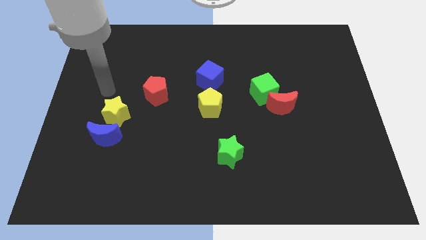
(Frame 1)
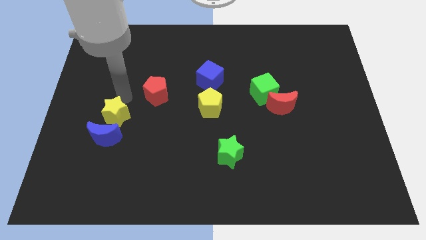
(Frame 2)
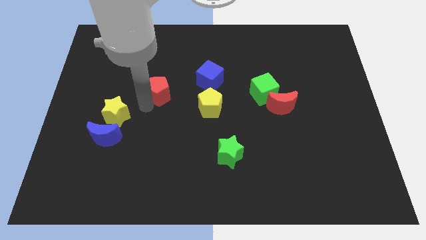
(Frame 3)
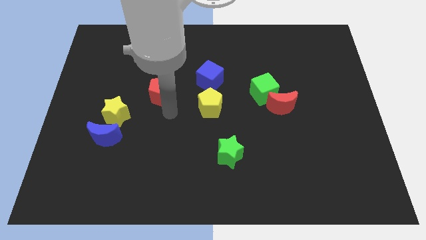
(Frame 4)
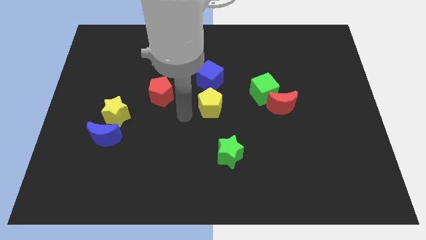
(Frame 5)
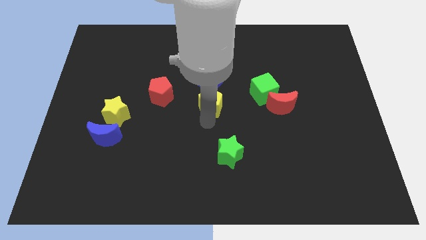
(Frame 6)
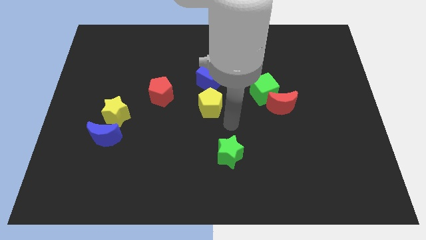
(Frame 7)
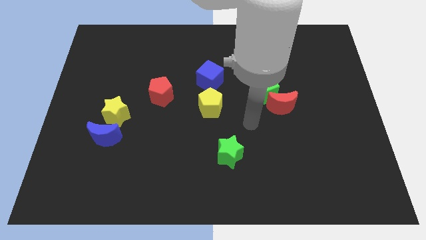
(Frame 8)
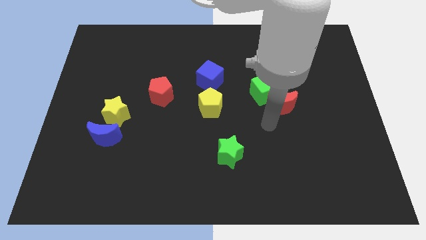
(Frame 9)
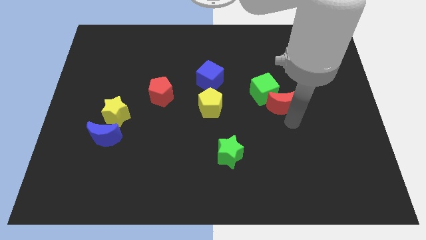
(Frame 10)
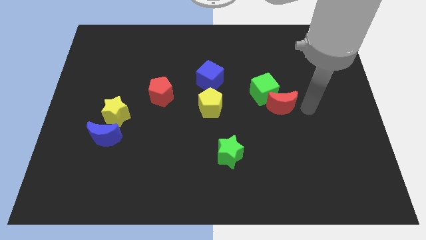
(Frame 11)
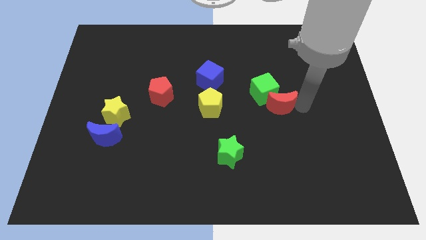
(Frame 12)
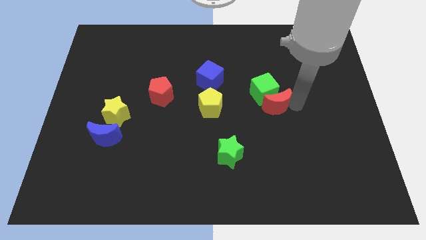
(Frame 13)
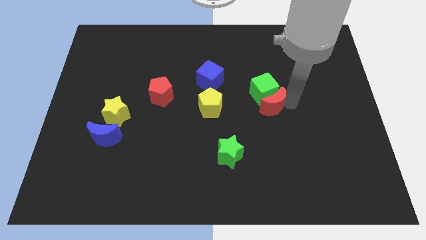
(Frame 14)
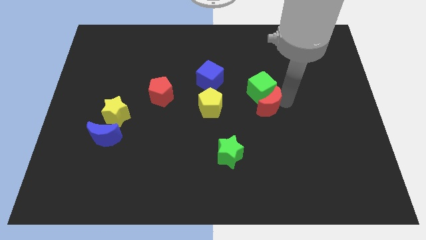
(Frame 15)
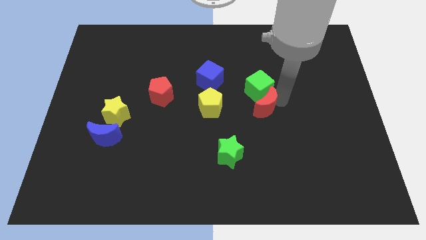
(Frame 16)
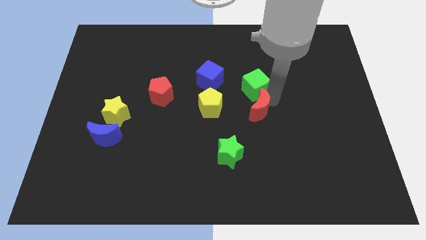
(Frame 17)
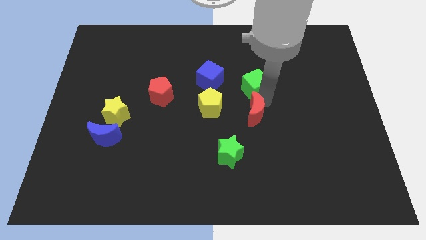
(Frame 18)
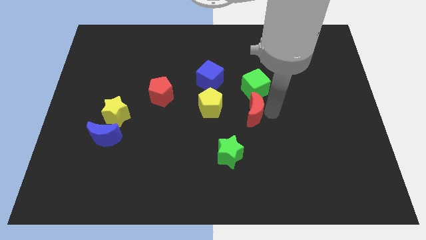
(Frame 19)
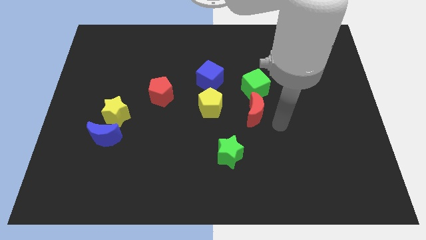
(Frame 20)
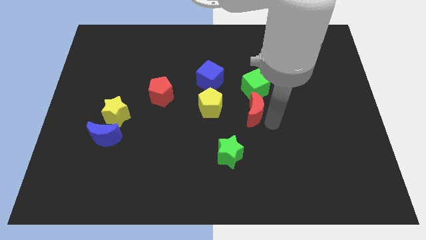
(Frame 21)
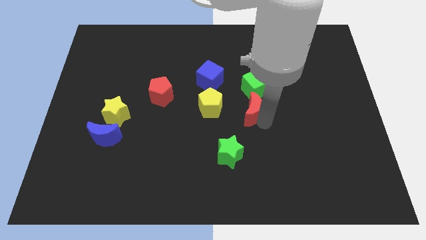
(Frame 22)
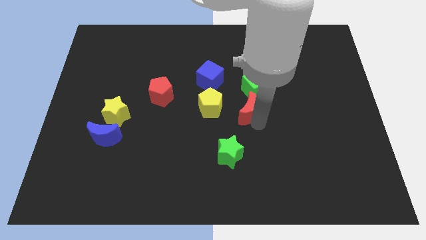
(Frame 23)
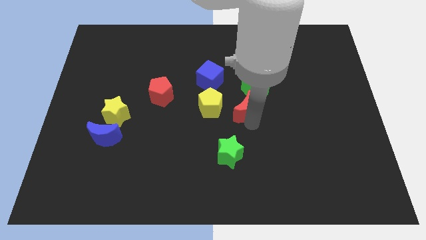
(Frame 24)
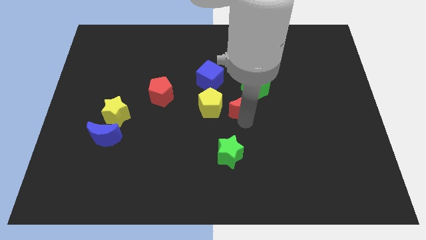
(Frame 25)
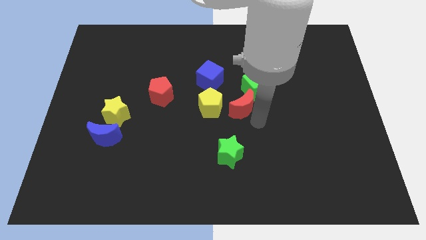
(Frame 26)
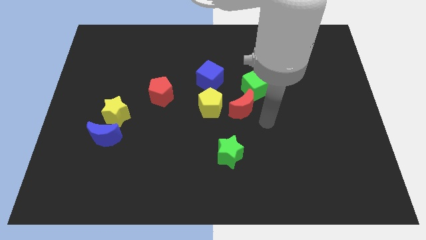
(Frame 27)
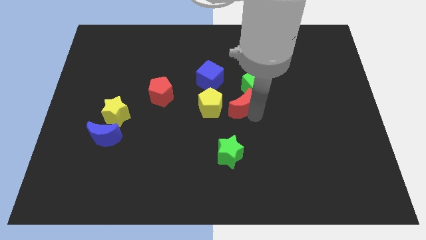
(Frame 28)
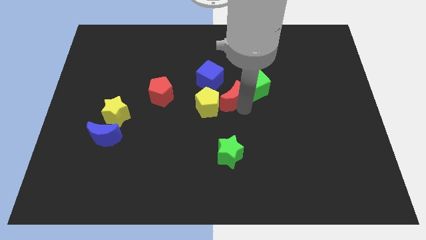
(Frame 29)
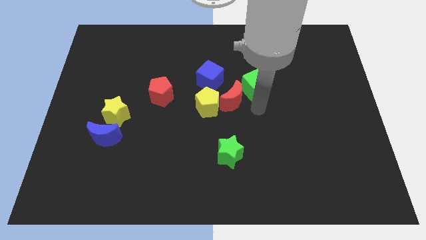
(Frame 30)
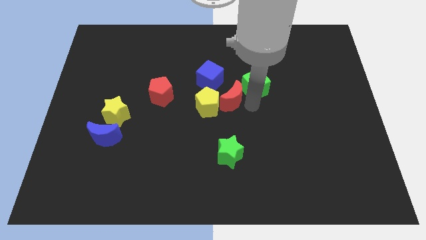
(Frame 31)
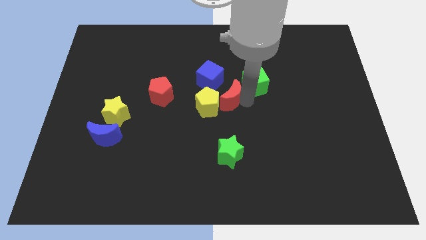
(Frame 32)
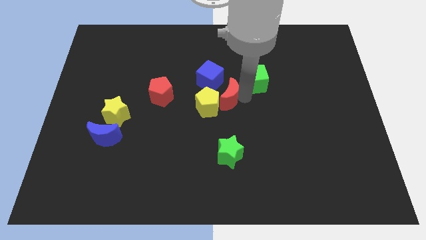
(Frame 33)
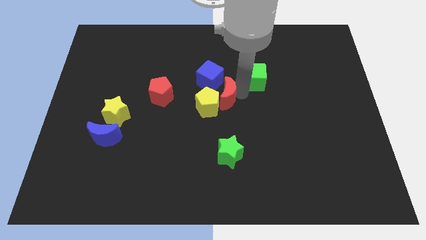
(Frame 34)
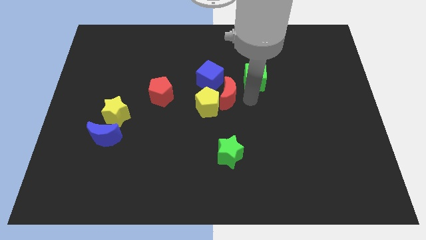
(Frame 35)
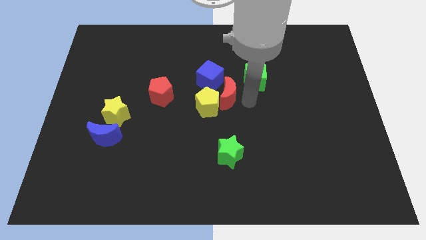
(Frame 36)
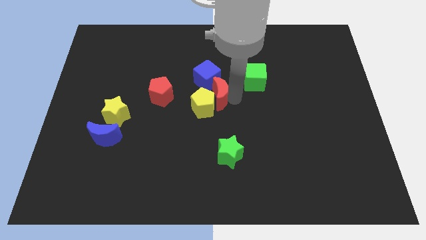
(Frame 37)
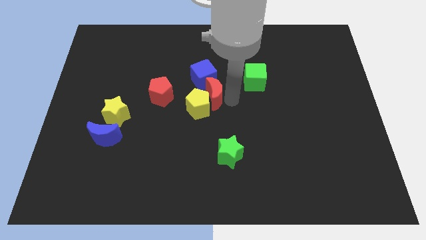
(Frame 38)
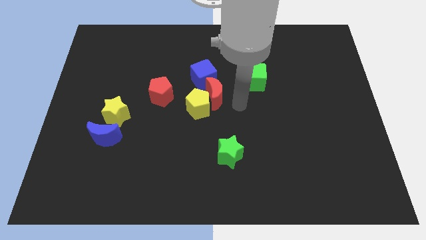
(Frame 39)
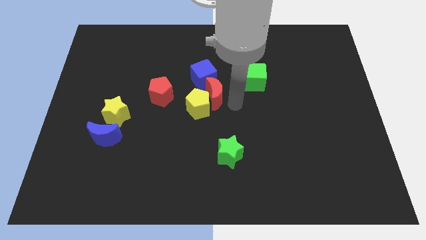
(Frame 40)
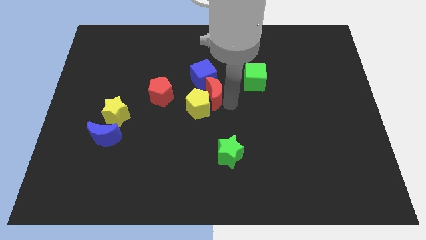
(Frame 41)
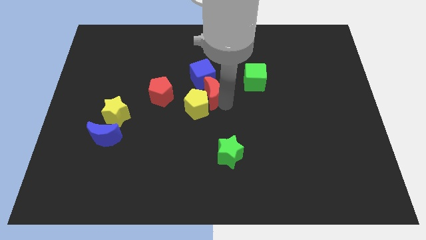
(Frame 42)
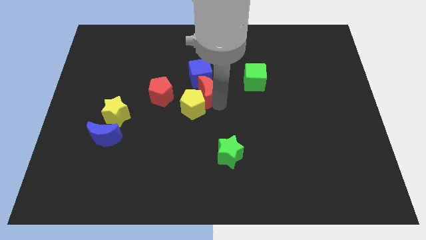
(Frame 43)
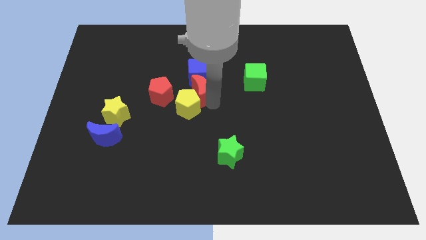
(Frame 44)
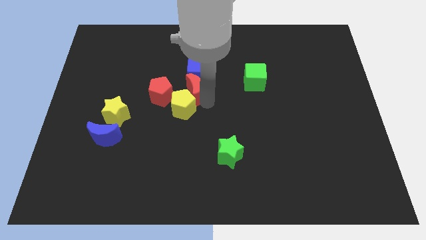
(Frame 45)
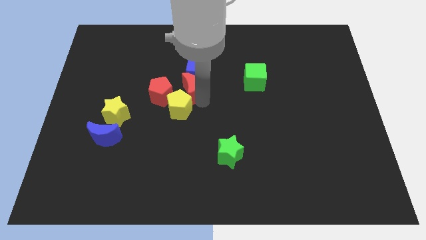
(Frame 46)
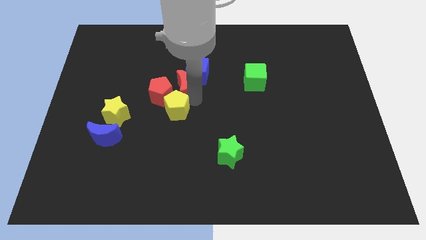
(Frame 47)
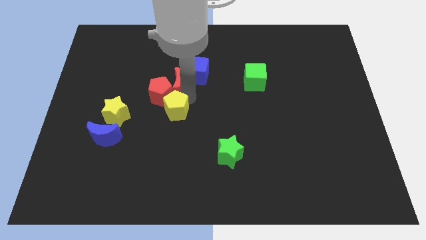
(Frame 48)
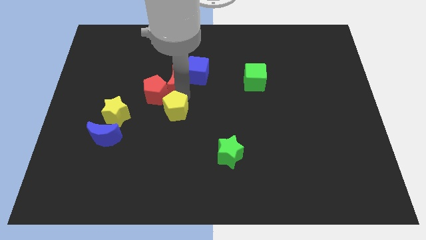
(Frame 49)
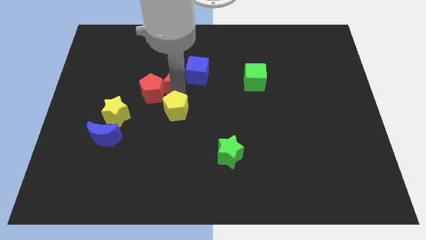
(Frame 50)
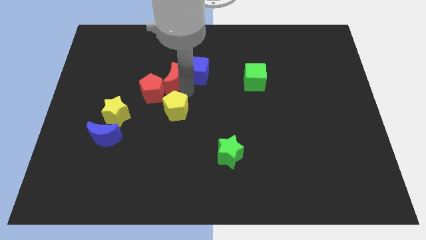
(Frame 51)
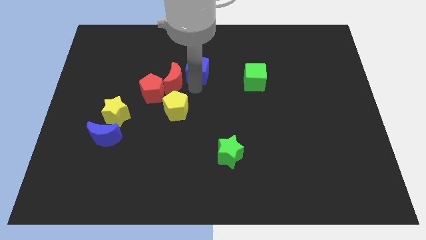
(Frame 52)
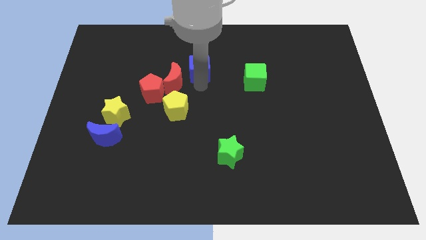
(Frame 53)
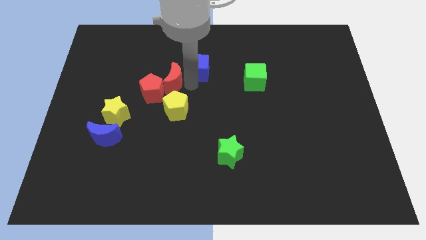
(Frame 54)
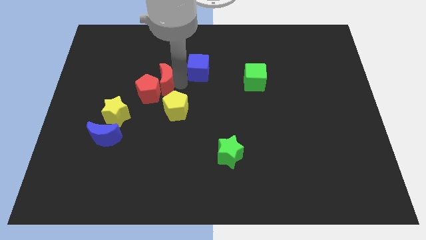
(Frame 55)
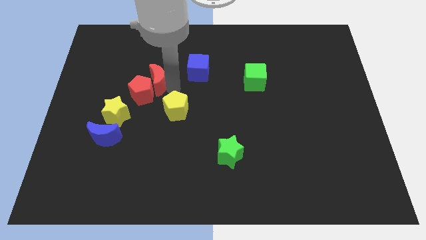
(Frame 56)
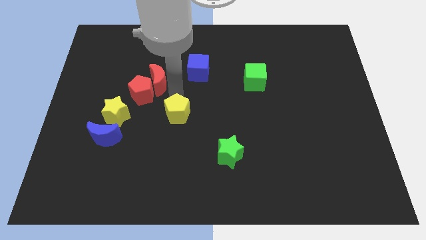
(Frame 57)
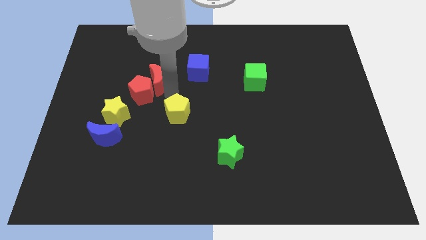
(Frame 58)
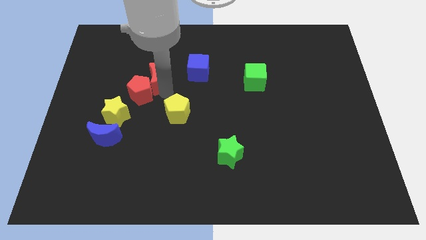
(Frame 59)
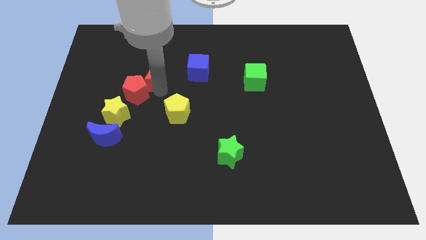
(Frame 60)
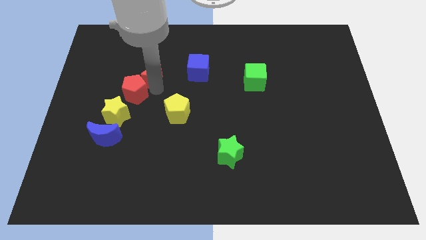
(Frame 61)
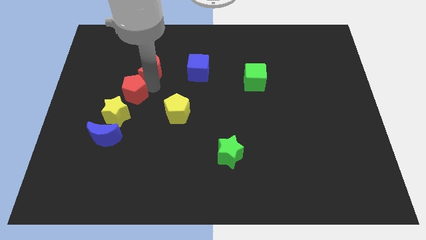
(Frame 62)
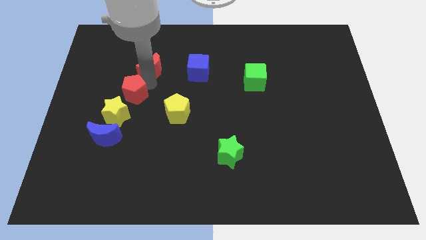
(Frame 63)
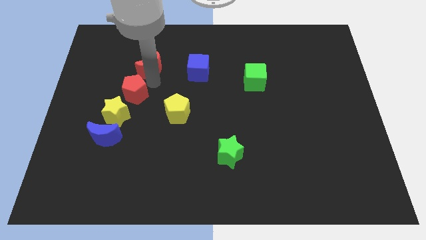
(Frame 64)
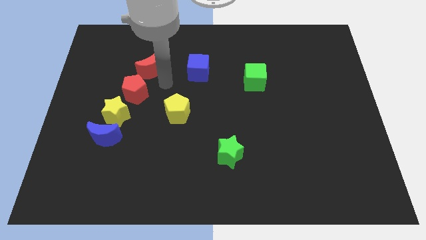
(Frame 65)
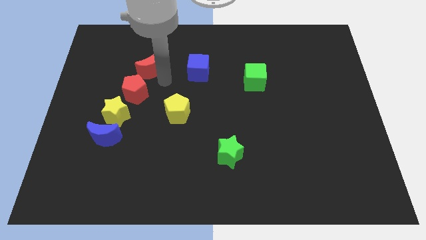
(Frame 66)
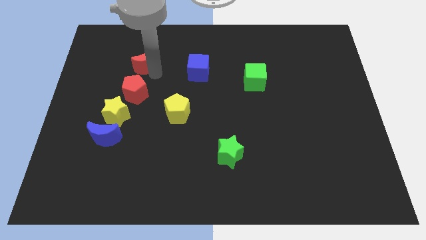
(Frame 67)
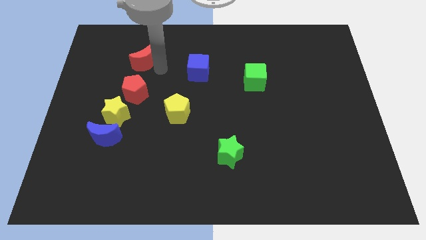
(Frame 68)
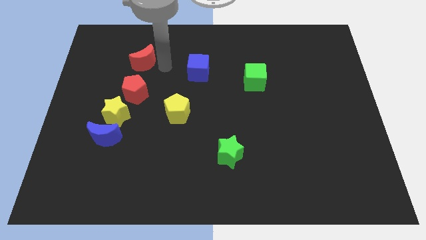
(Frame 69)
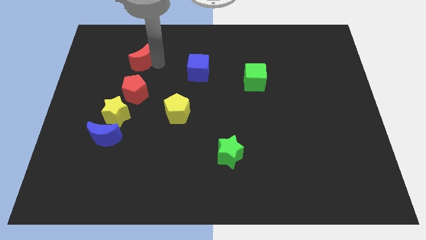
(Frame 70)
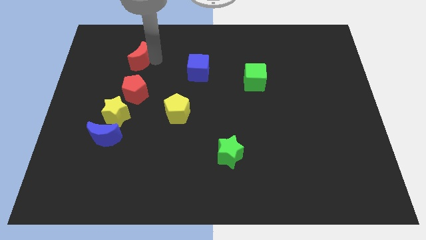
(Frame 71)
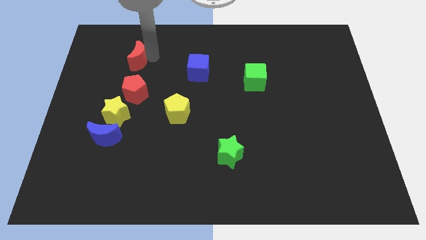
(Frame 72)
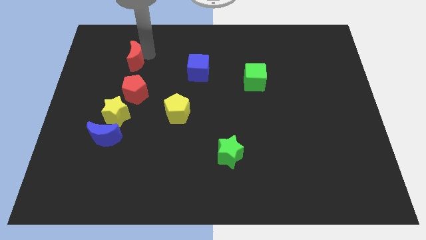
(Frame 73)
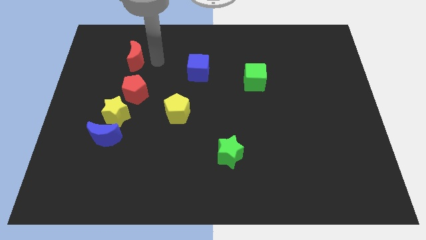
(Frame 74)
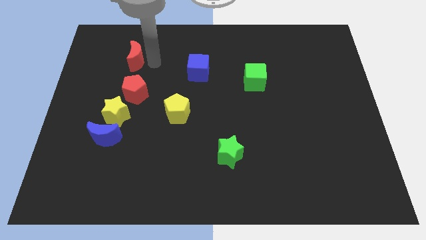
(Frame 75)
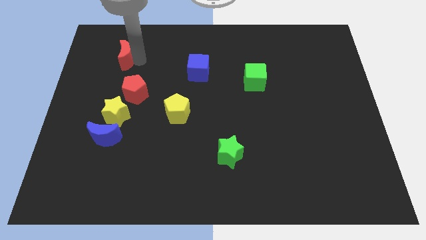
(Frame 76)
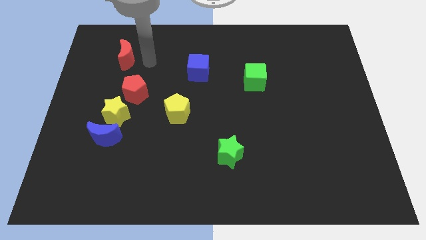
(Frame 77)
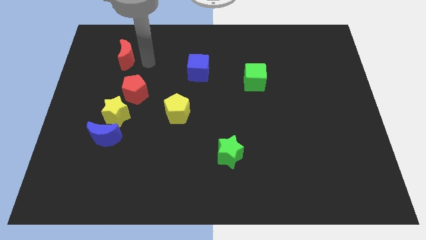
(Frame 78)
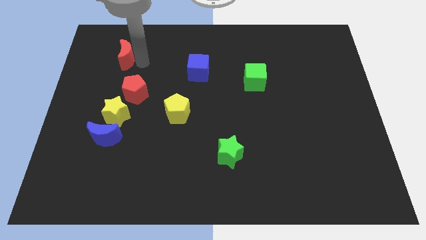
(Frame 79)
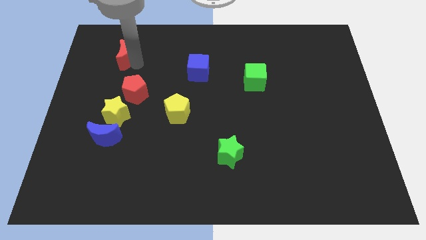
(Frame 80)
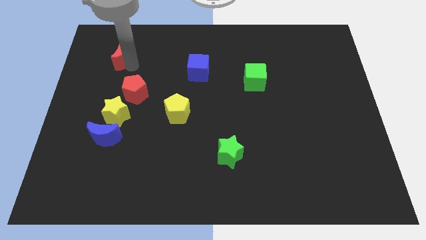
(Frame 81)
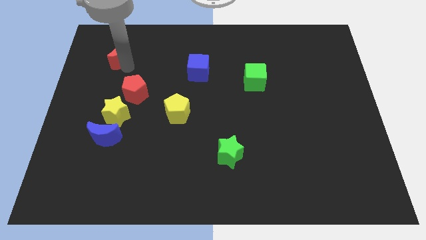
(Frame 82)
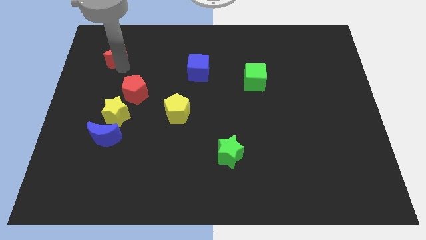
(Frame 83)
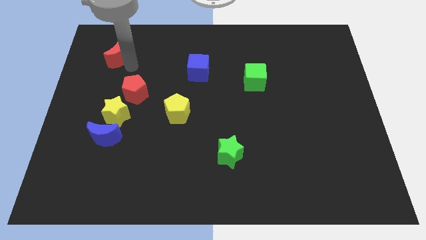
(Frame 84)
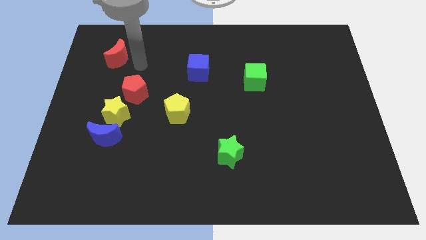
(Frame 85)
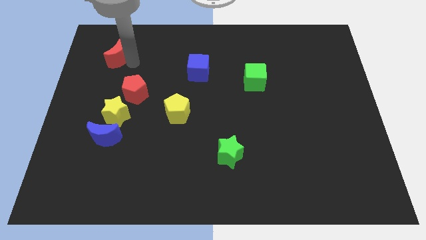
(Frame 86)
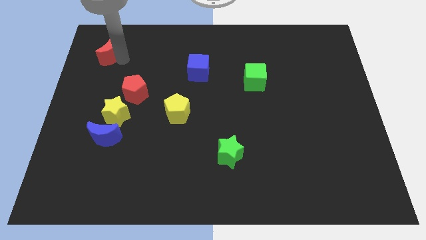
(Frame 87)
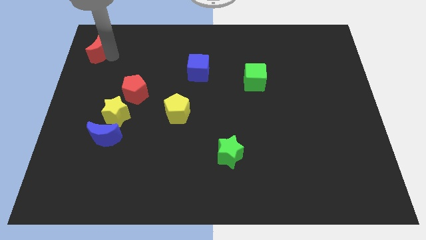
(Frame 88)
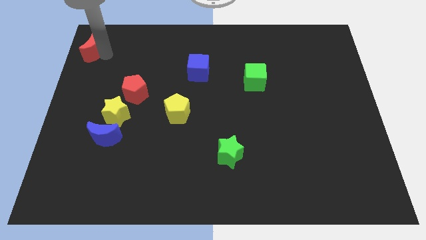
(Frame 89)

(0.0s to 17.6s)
push the red moon to the upper left corner
